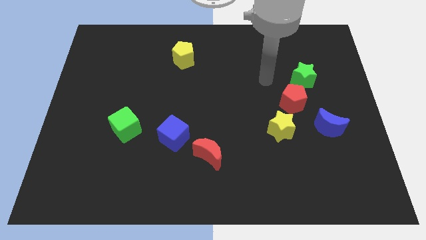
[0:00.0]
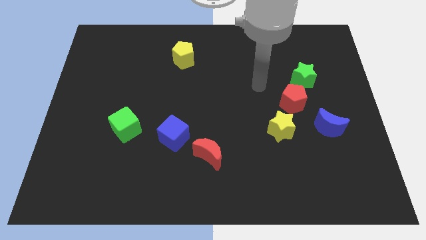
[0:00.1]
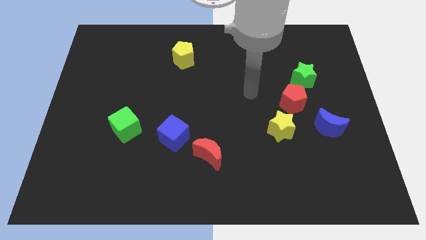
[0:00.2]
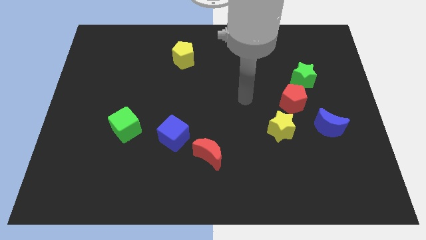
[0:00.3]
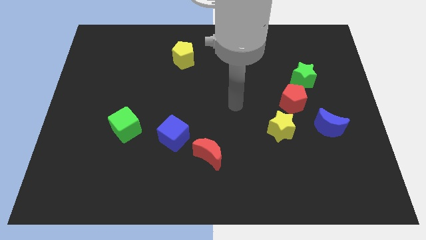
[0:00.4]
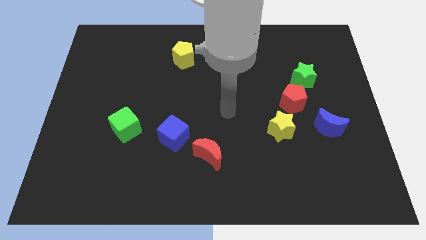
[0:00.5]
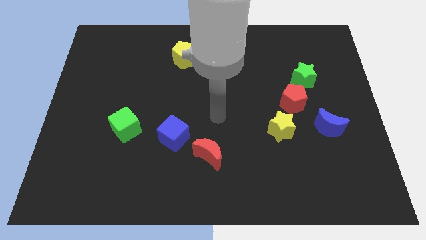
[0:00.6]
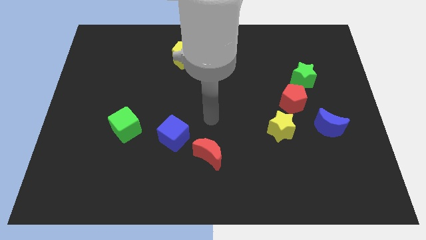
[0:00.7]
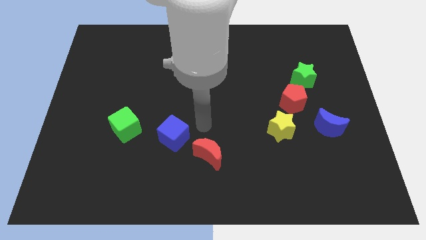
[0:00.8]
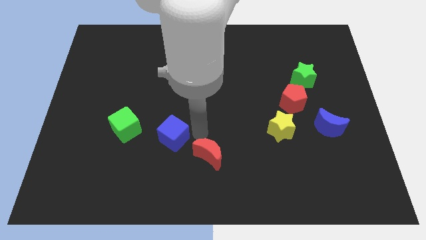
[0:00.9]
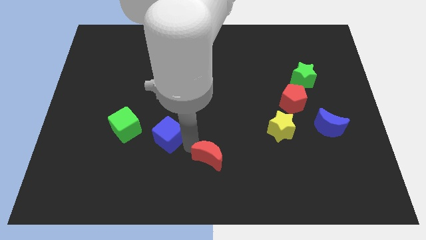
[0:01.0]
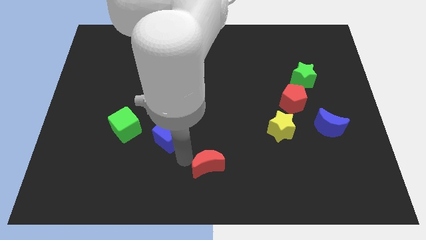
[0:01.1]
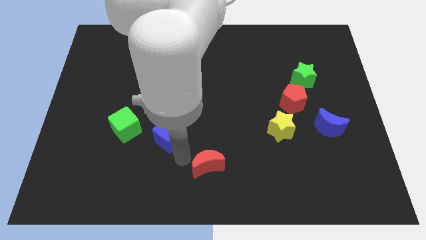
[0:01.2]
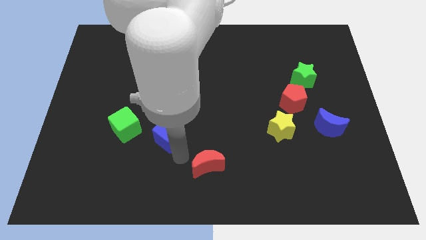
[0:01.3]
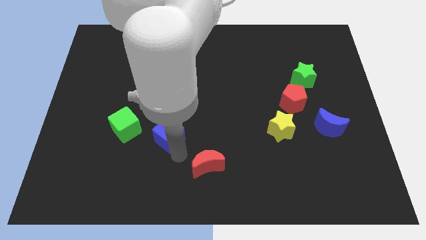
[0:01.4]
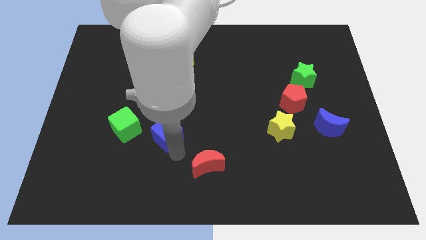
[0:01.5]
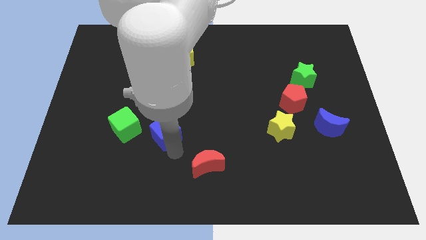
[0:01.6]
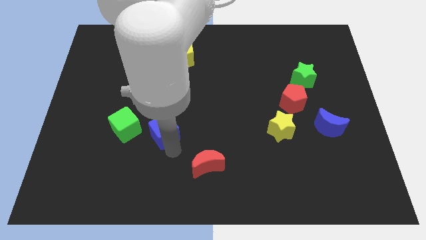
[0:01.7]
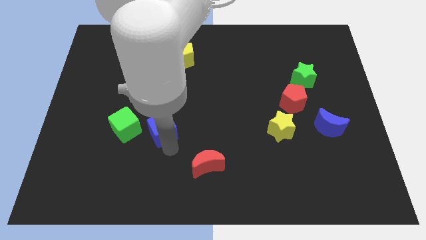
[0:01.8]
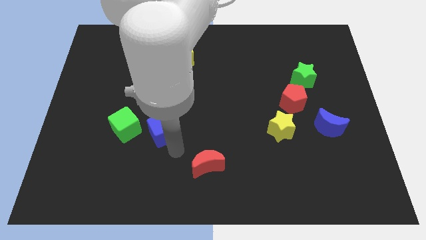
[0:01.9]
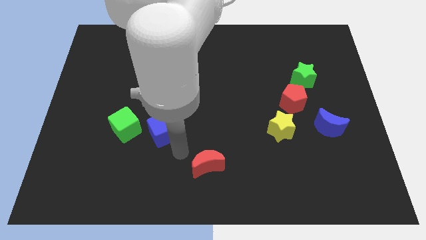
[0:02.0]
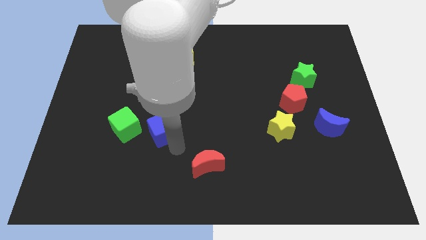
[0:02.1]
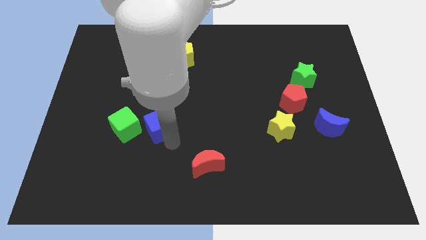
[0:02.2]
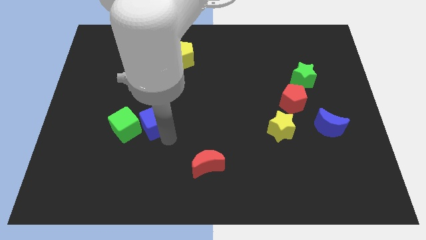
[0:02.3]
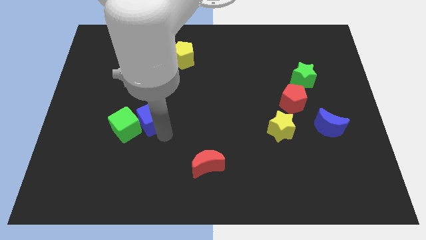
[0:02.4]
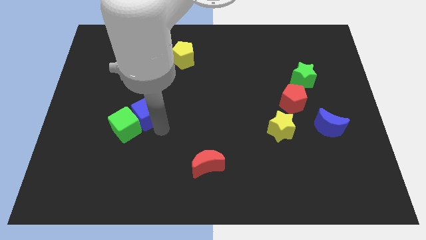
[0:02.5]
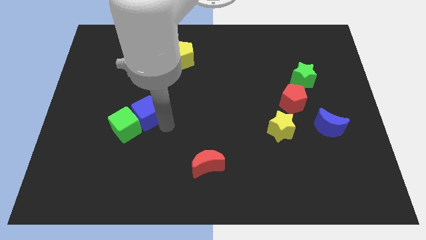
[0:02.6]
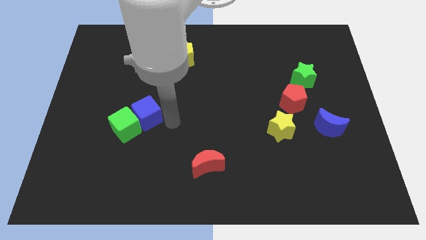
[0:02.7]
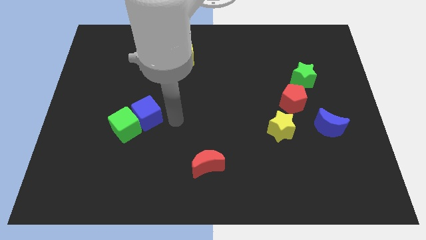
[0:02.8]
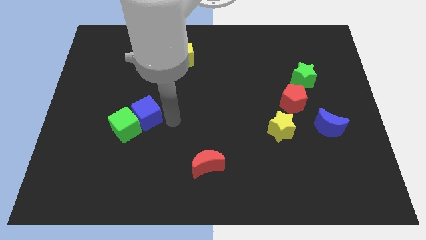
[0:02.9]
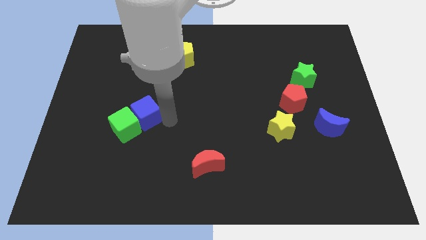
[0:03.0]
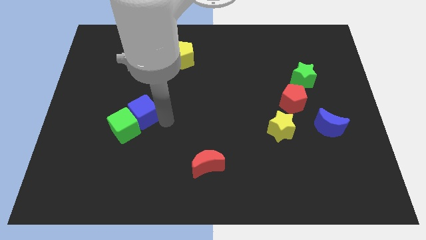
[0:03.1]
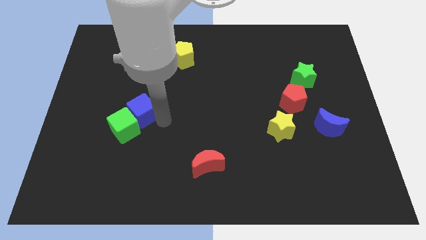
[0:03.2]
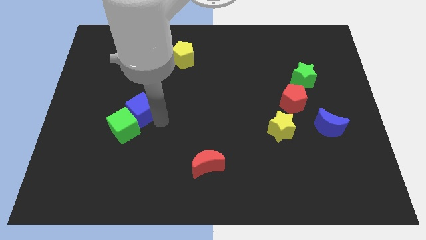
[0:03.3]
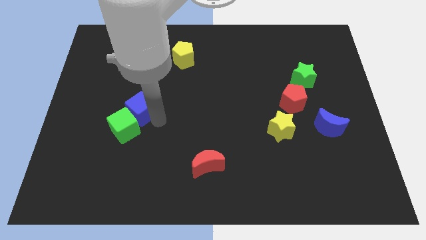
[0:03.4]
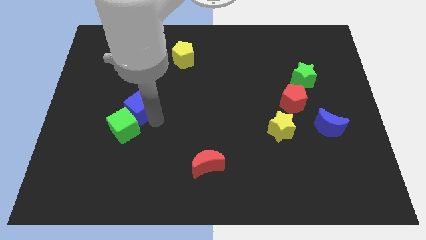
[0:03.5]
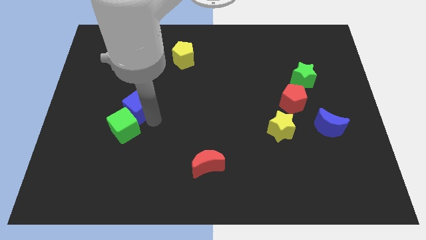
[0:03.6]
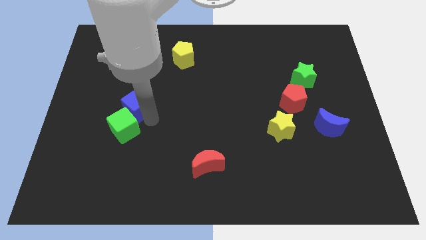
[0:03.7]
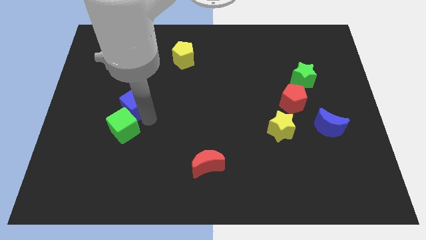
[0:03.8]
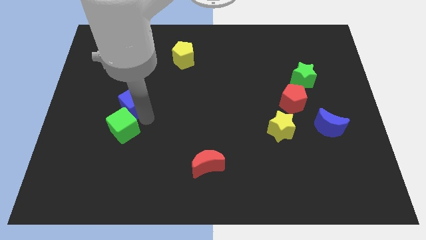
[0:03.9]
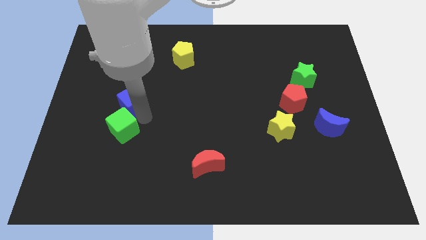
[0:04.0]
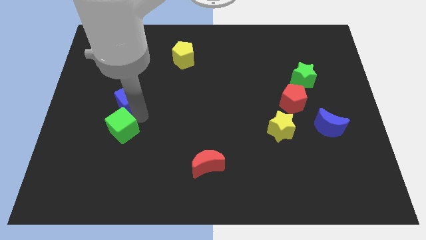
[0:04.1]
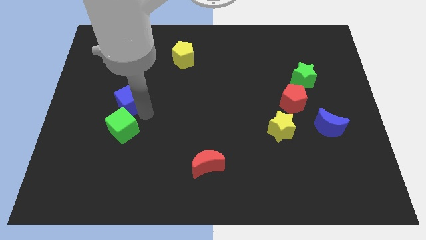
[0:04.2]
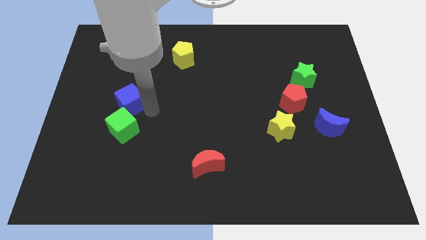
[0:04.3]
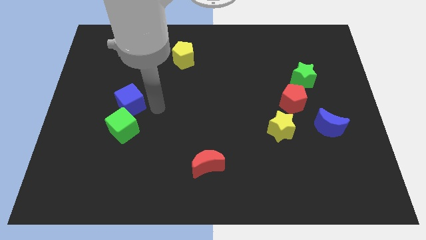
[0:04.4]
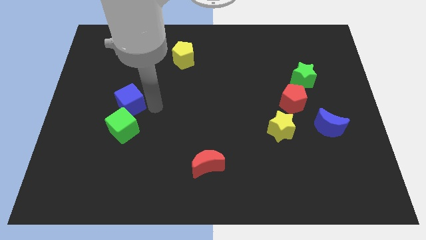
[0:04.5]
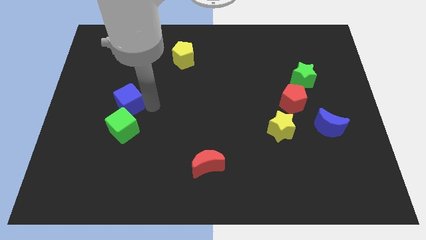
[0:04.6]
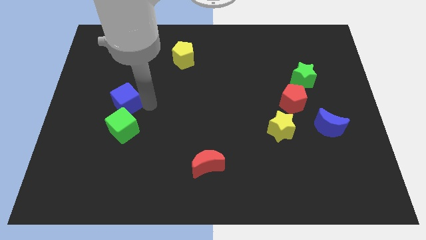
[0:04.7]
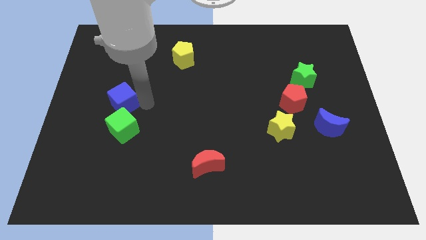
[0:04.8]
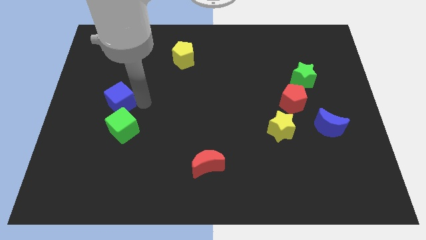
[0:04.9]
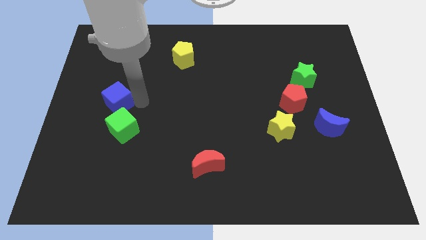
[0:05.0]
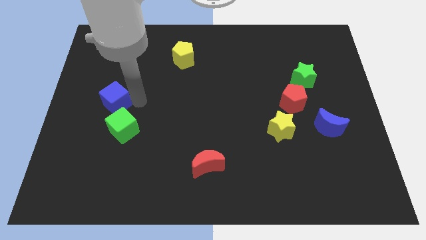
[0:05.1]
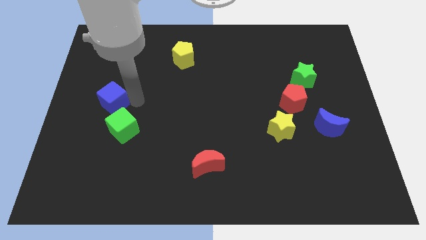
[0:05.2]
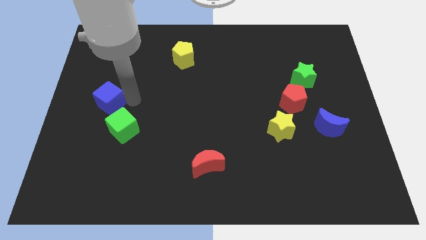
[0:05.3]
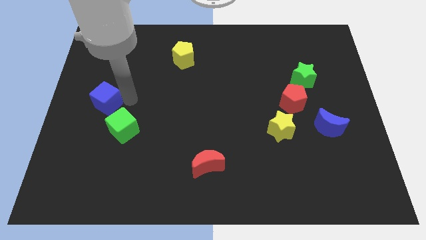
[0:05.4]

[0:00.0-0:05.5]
move the blue cube to the center left

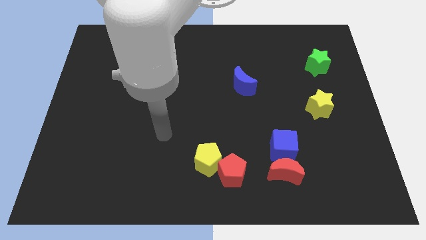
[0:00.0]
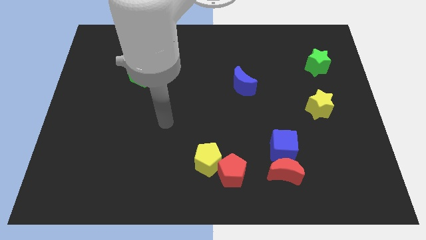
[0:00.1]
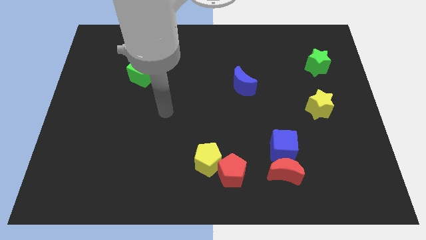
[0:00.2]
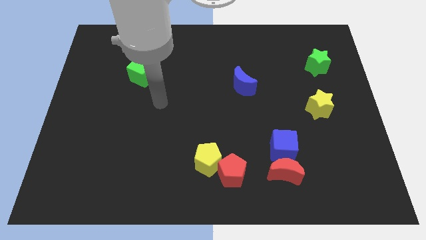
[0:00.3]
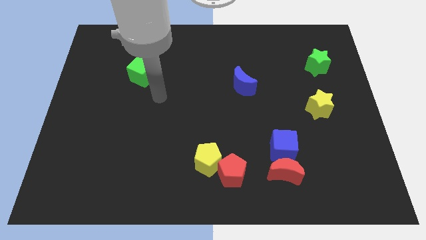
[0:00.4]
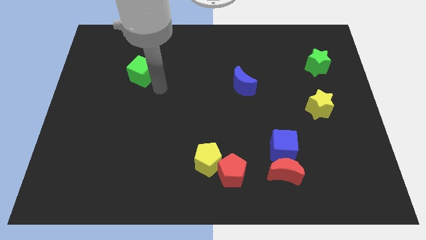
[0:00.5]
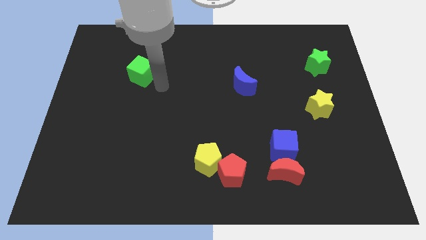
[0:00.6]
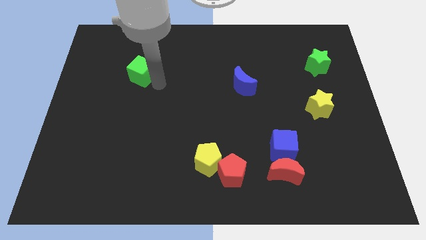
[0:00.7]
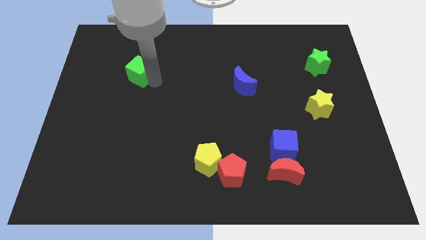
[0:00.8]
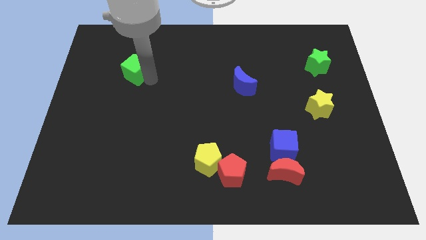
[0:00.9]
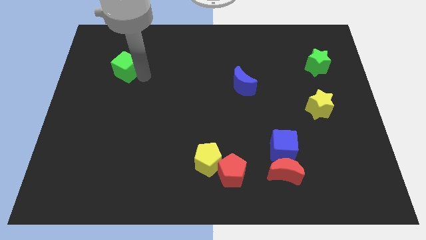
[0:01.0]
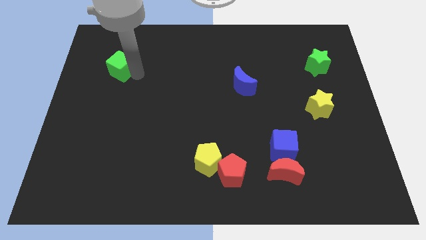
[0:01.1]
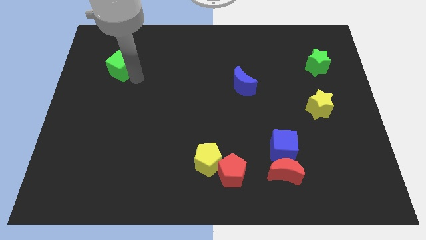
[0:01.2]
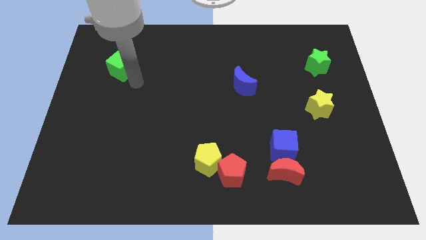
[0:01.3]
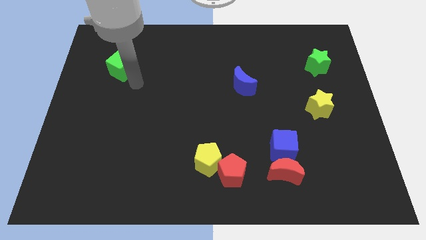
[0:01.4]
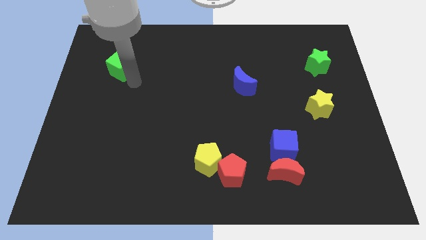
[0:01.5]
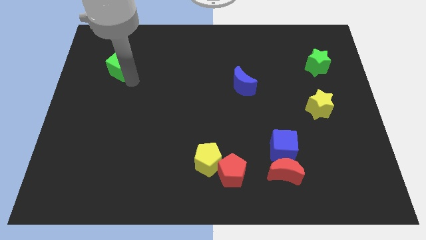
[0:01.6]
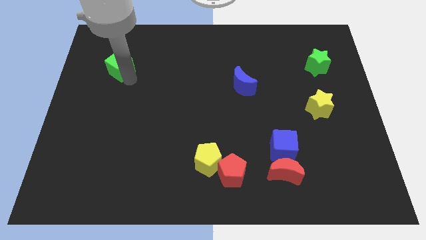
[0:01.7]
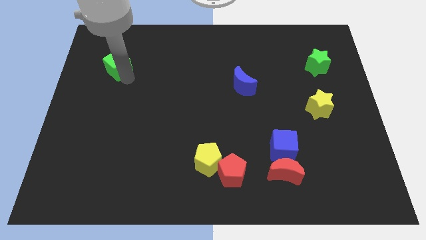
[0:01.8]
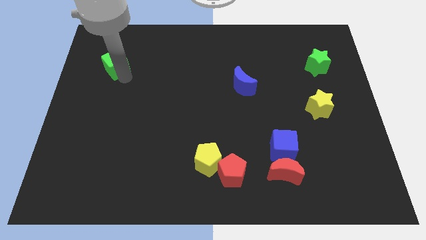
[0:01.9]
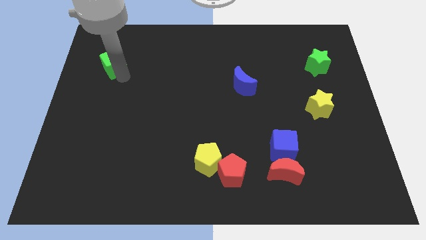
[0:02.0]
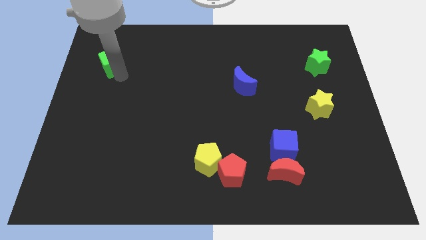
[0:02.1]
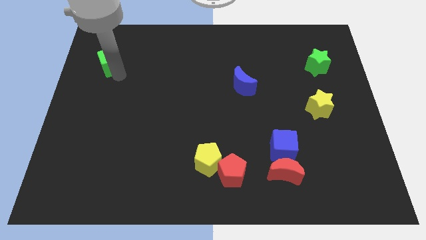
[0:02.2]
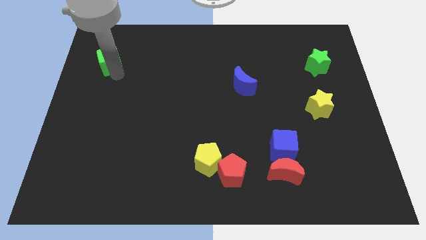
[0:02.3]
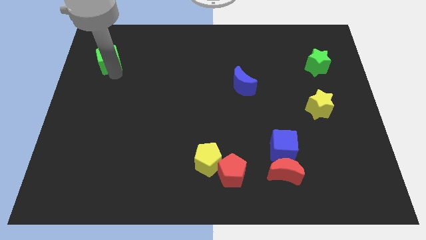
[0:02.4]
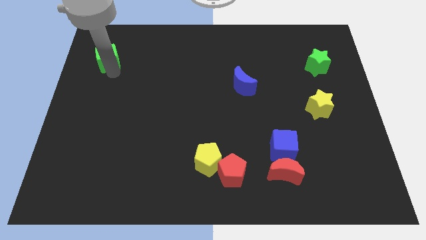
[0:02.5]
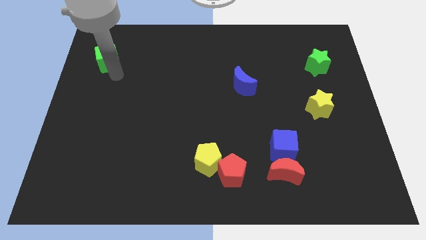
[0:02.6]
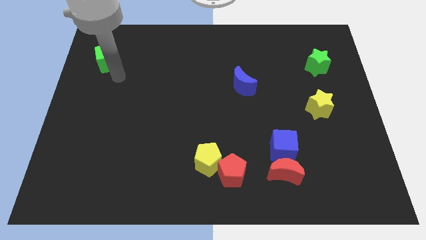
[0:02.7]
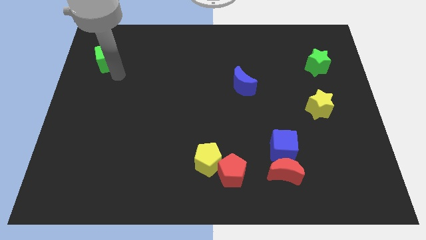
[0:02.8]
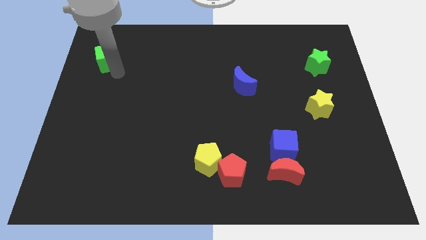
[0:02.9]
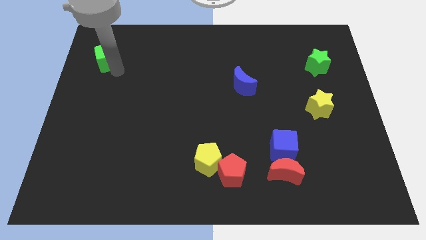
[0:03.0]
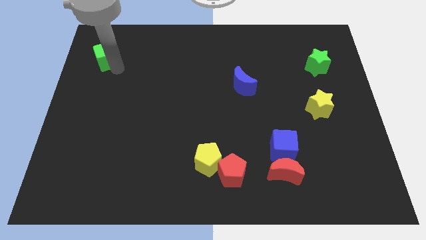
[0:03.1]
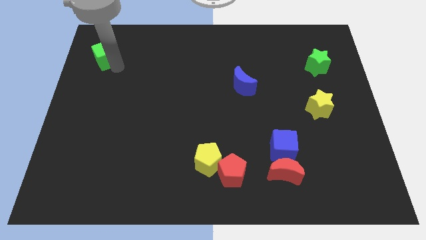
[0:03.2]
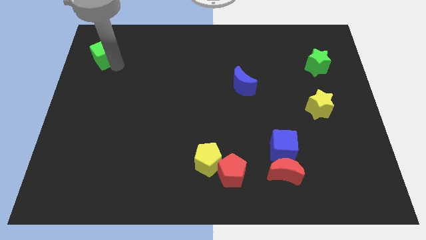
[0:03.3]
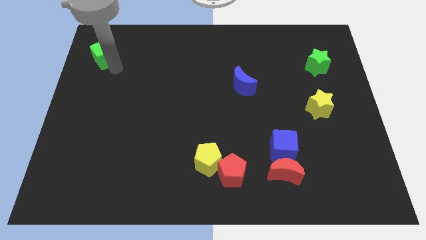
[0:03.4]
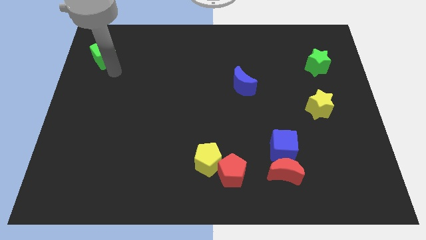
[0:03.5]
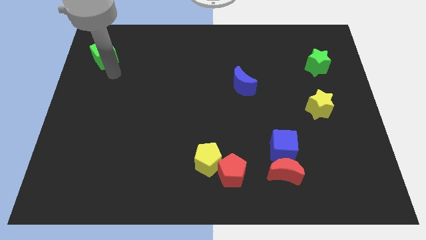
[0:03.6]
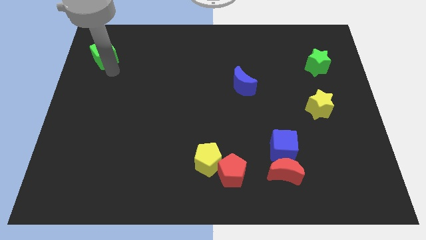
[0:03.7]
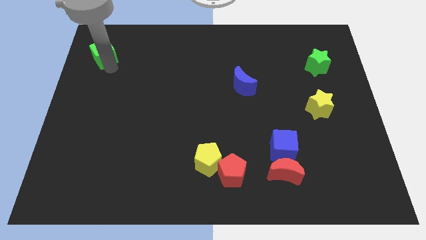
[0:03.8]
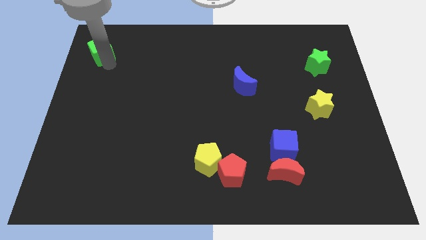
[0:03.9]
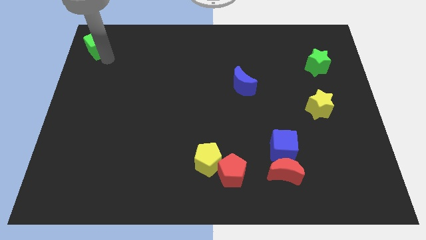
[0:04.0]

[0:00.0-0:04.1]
put the green cube to the top left corner
